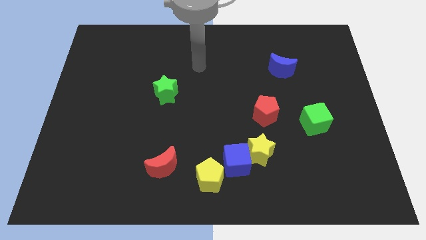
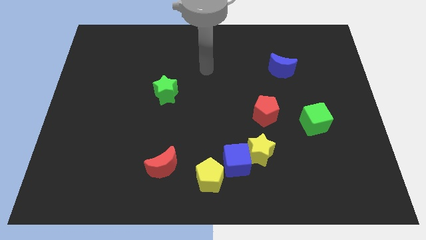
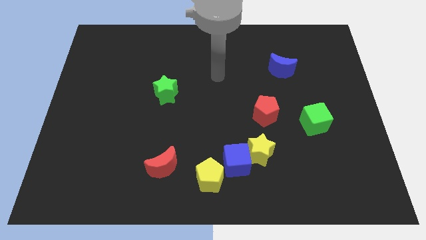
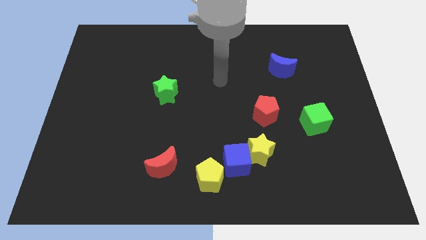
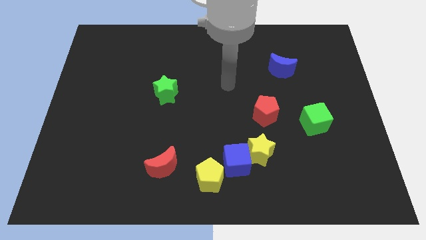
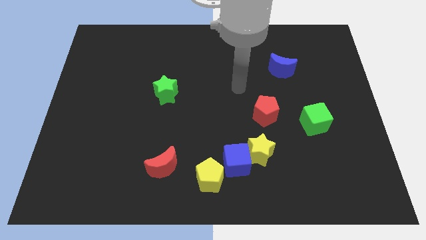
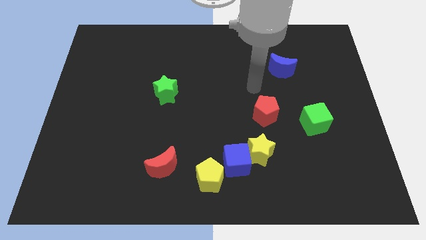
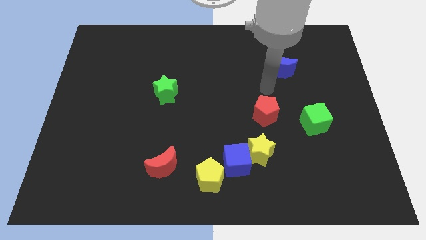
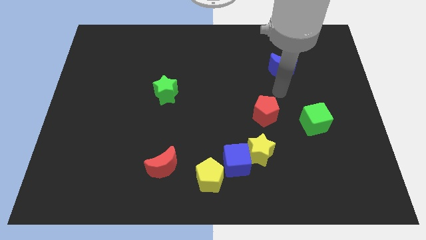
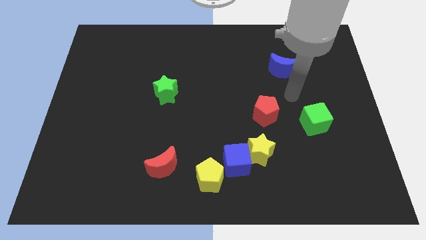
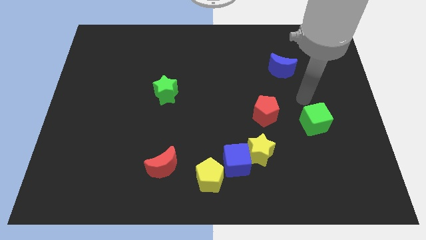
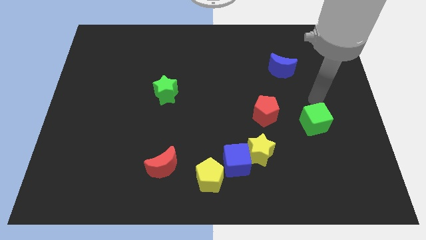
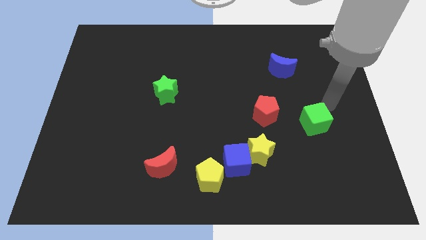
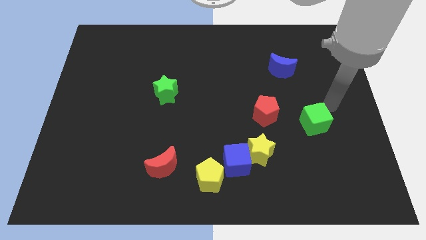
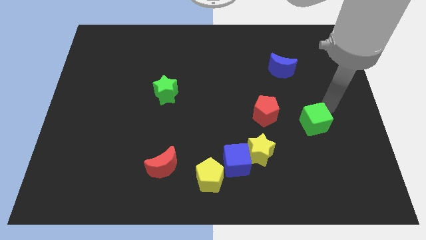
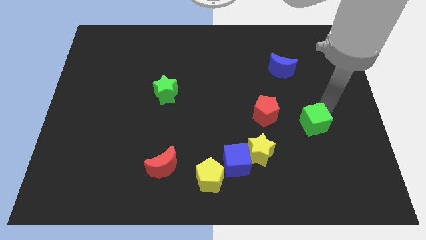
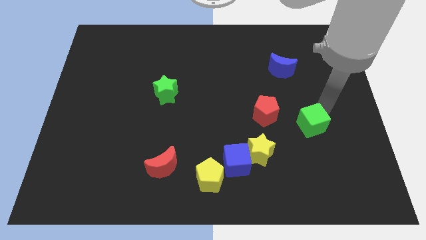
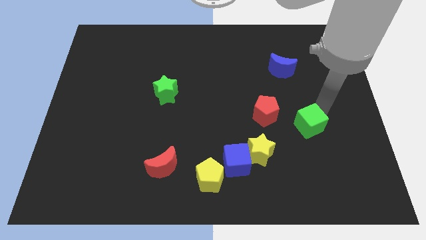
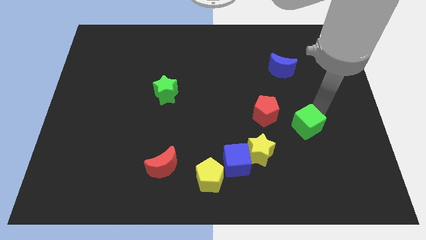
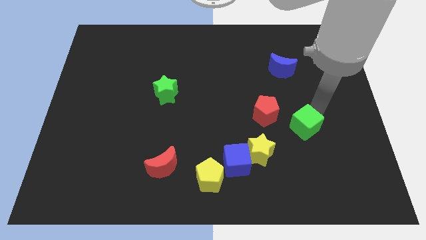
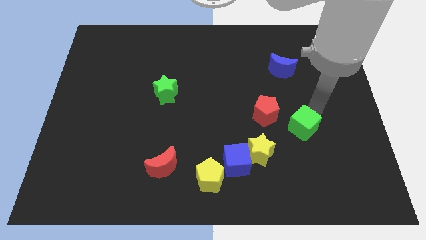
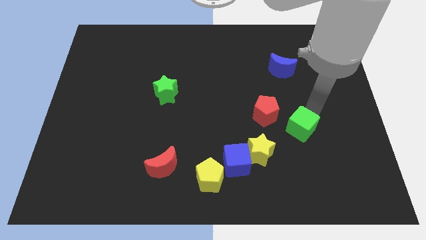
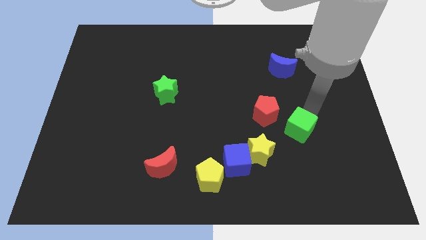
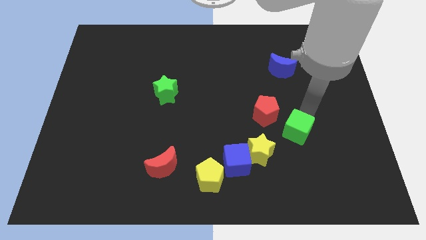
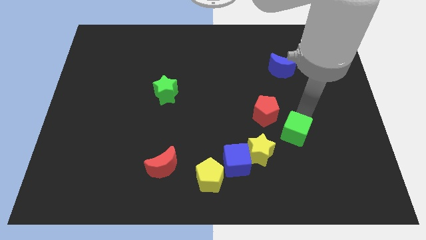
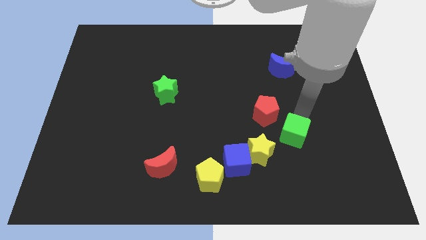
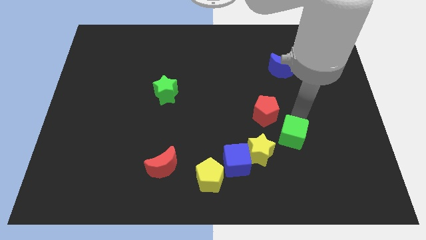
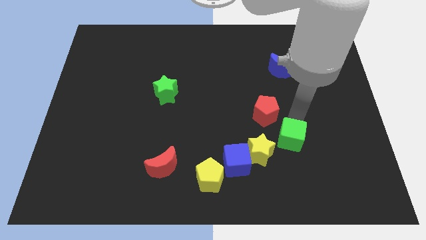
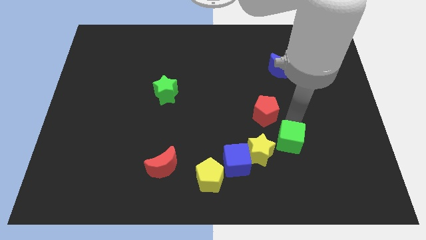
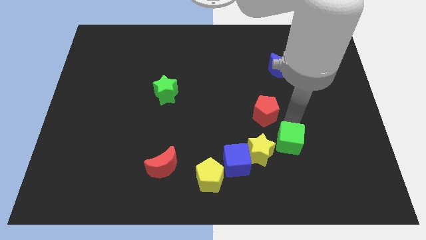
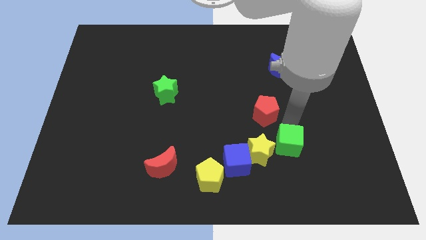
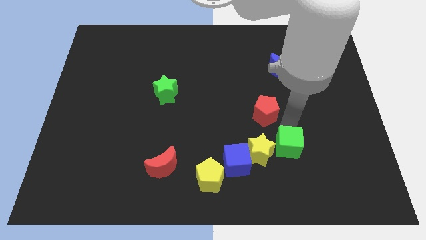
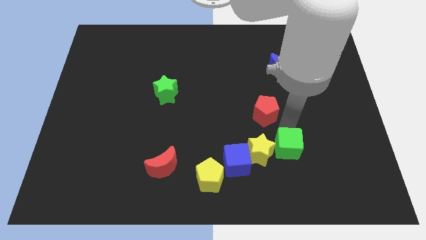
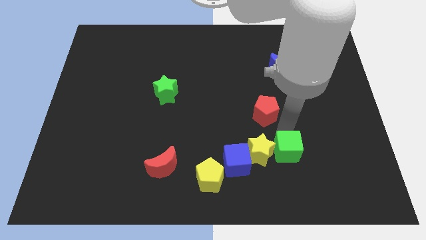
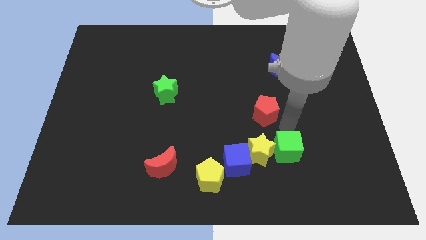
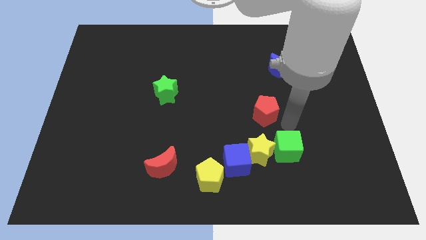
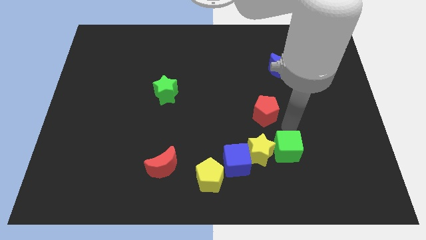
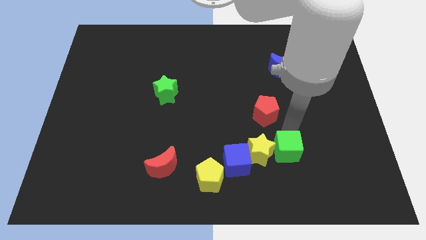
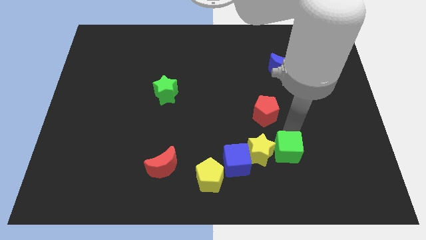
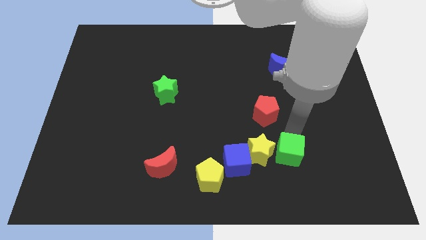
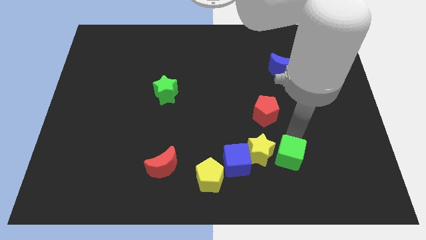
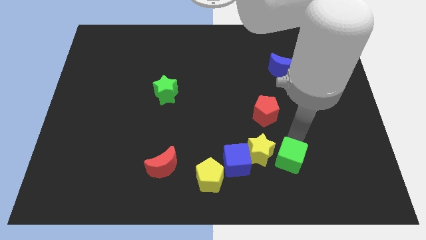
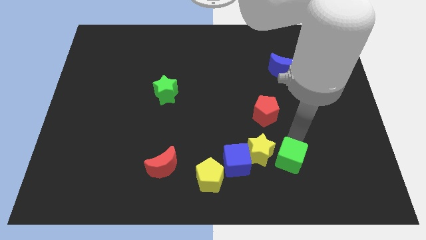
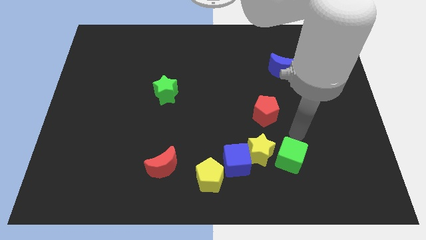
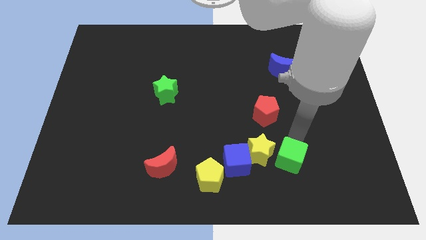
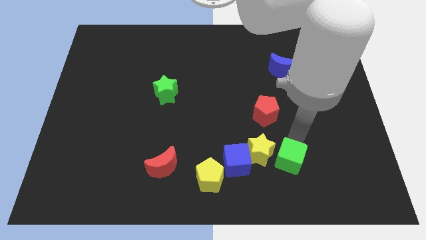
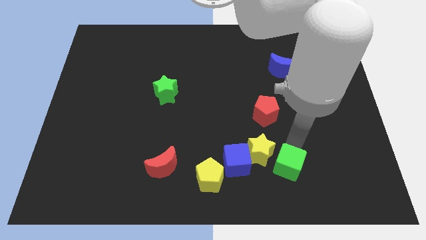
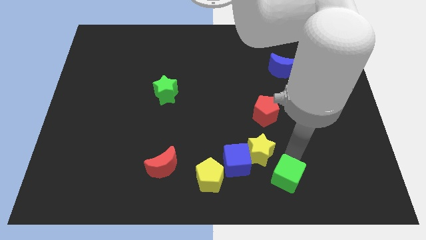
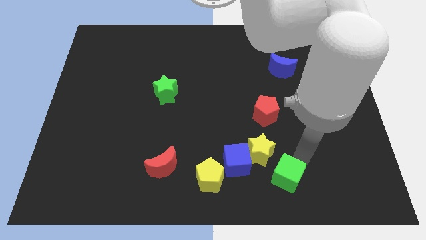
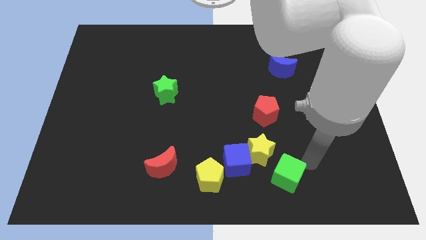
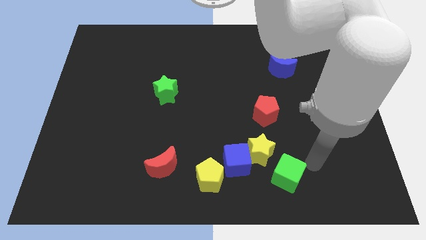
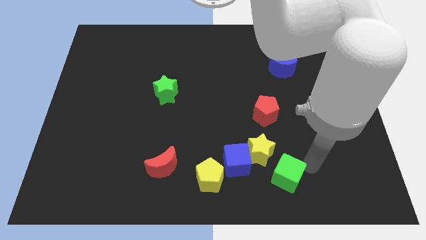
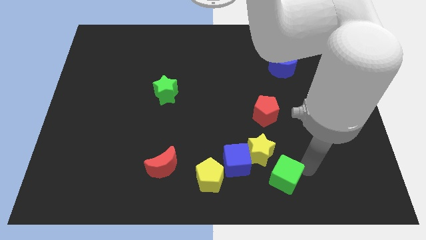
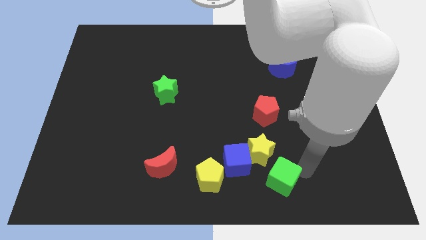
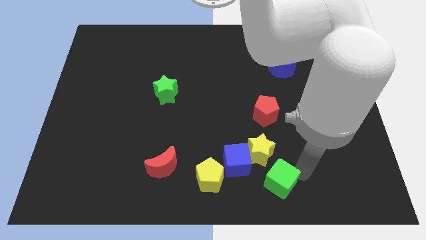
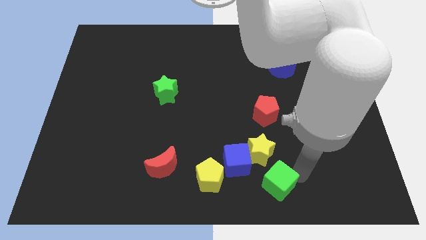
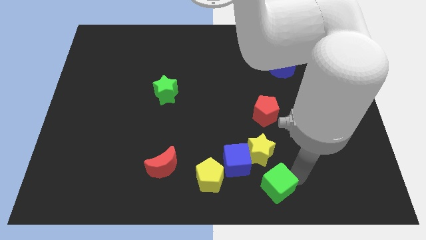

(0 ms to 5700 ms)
move the green cube to the bottom
